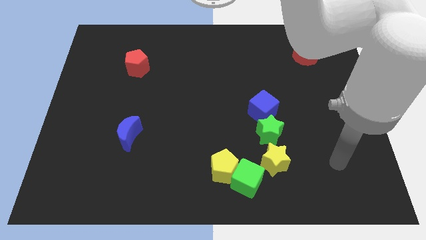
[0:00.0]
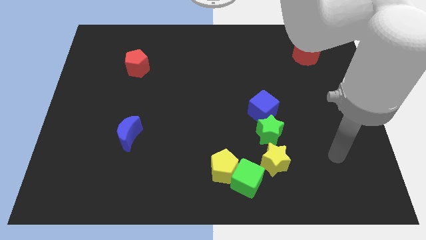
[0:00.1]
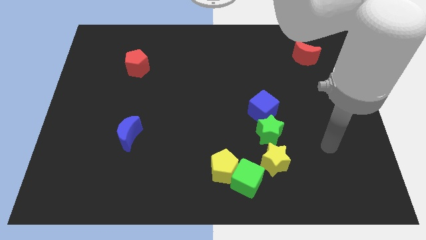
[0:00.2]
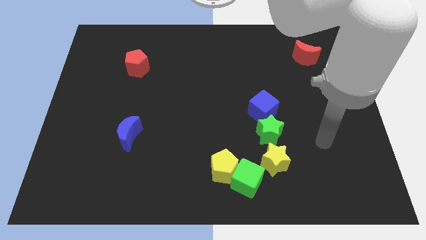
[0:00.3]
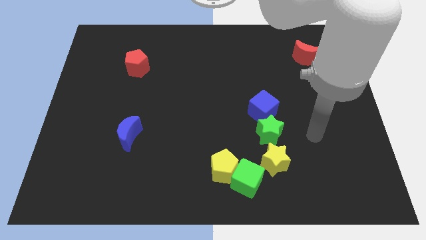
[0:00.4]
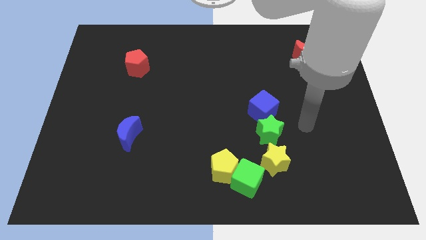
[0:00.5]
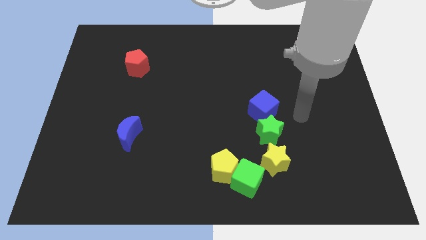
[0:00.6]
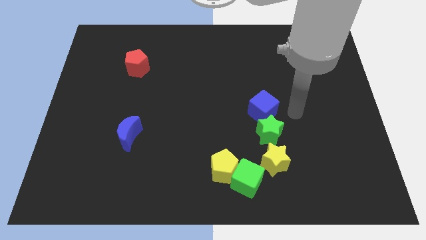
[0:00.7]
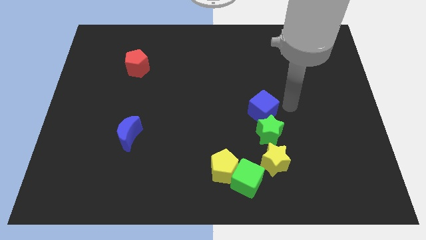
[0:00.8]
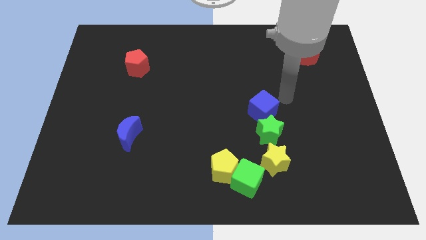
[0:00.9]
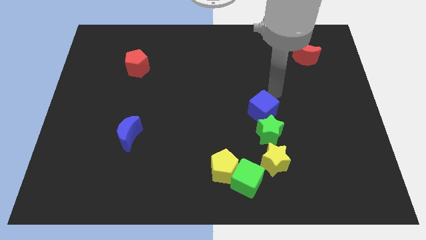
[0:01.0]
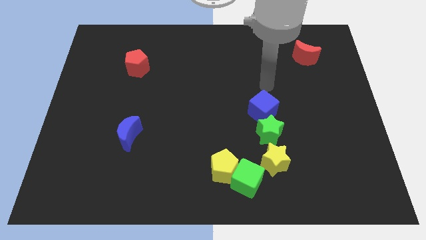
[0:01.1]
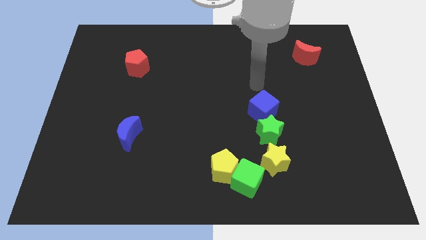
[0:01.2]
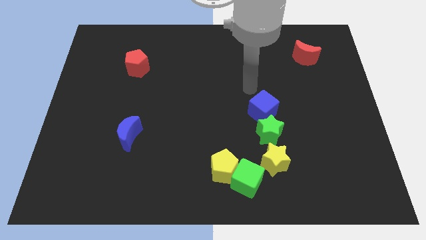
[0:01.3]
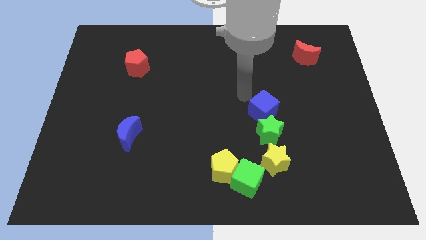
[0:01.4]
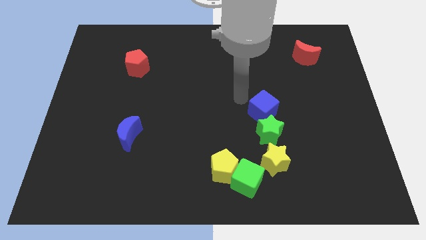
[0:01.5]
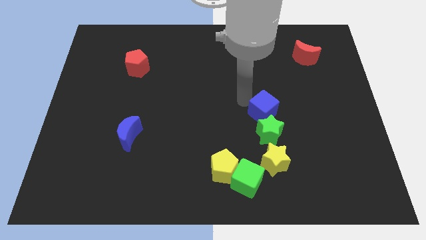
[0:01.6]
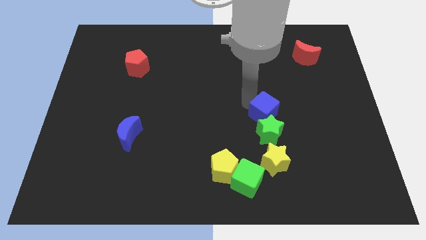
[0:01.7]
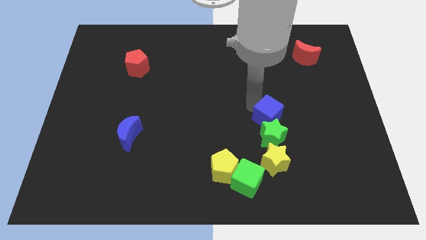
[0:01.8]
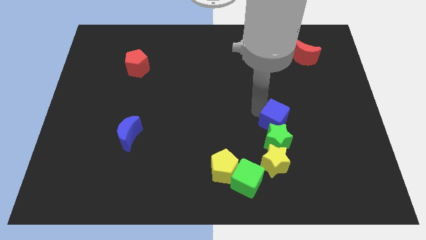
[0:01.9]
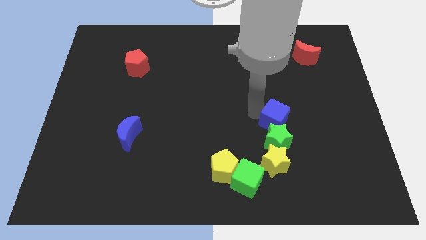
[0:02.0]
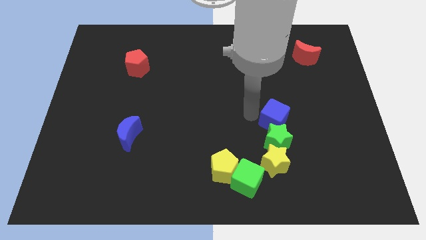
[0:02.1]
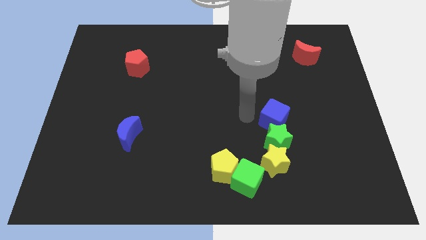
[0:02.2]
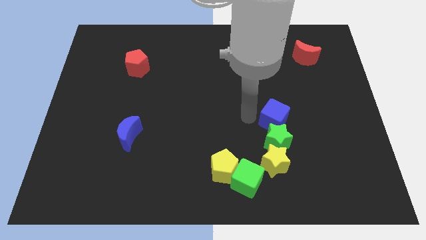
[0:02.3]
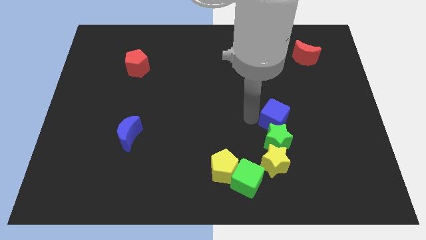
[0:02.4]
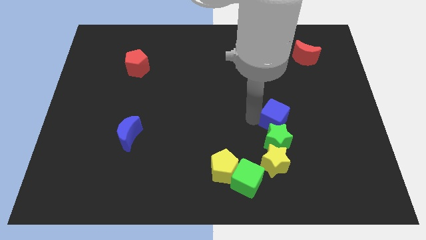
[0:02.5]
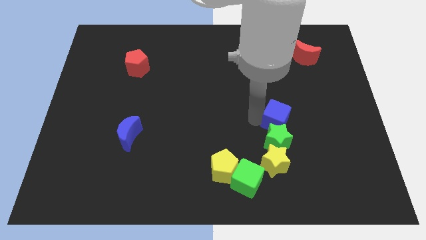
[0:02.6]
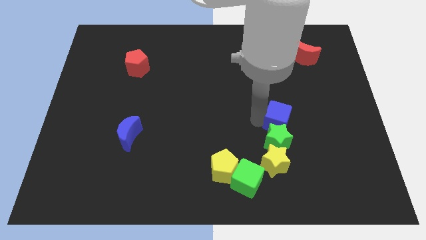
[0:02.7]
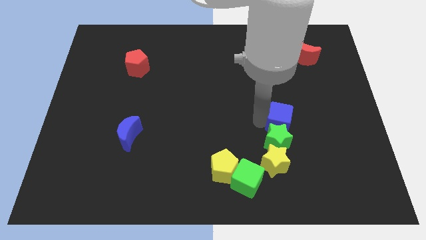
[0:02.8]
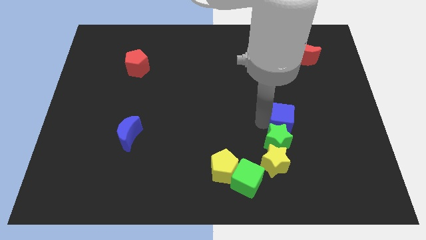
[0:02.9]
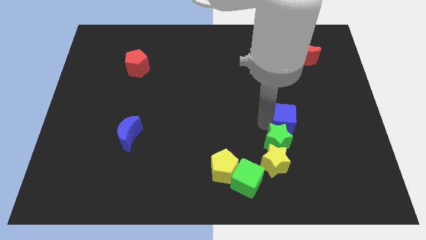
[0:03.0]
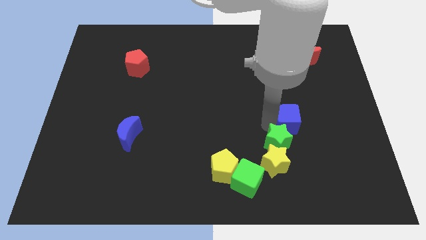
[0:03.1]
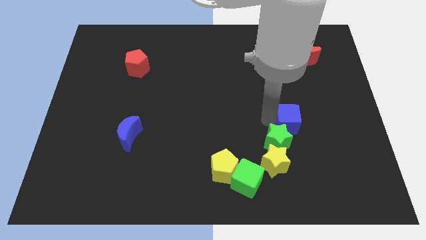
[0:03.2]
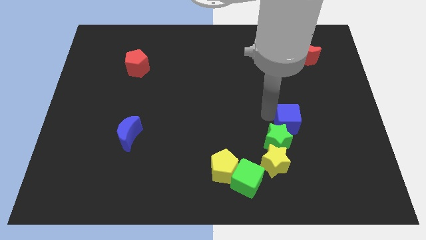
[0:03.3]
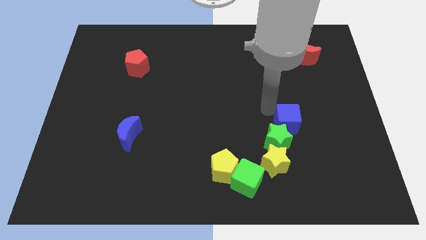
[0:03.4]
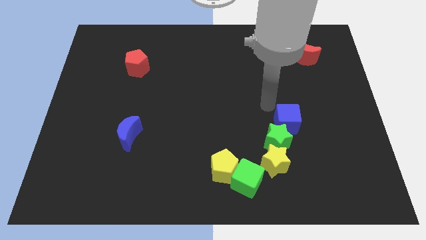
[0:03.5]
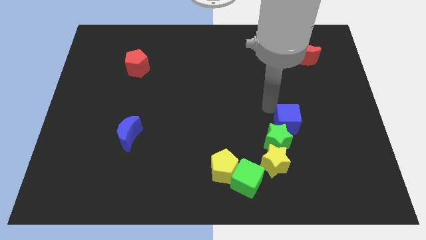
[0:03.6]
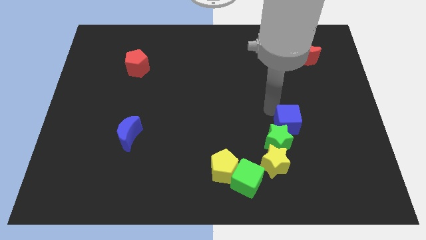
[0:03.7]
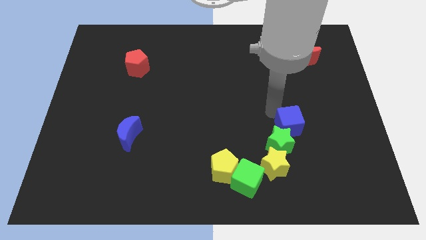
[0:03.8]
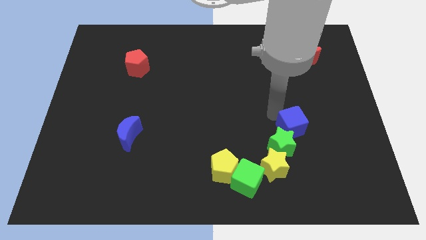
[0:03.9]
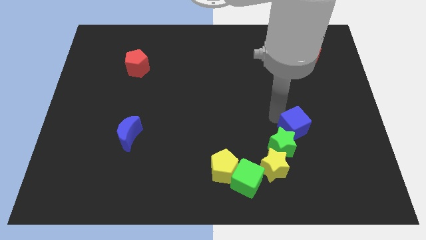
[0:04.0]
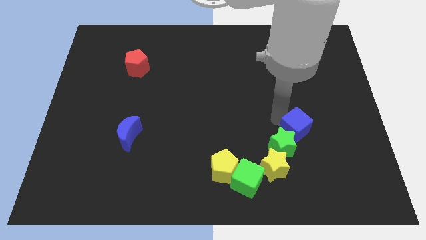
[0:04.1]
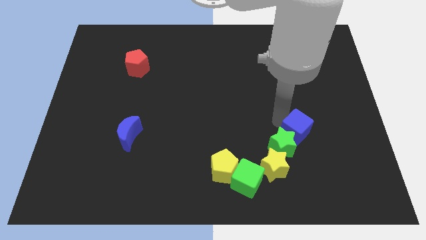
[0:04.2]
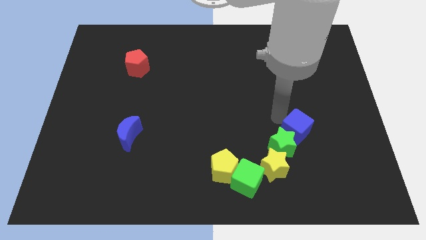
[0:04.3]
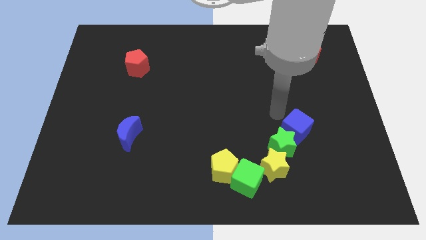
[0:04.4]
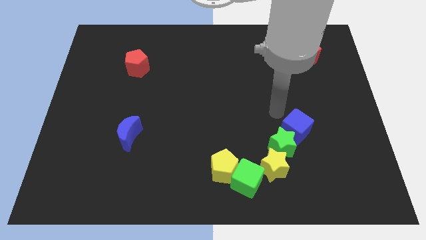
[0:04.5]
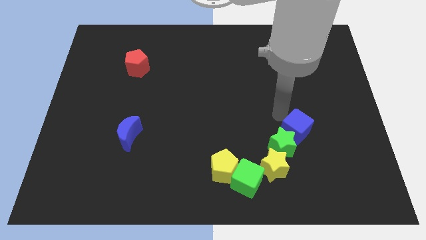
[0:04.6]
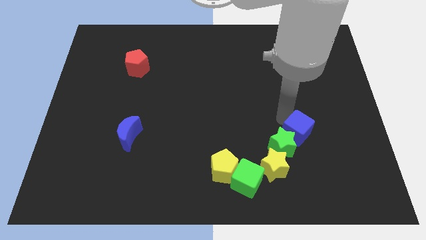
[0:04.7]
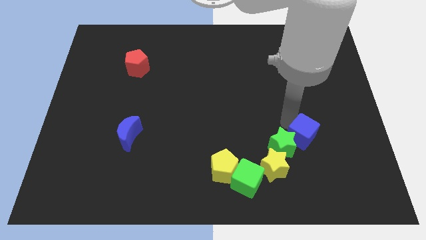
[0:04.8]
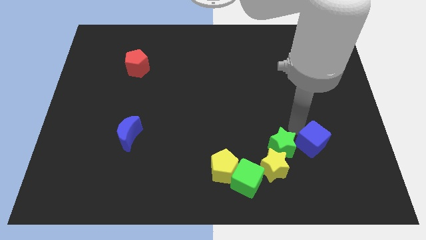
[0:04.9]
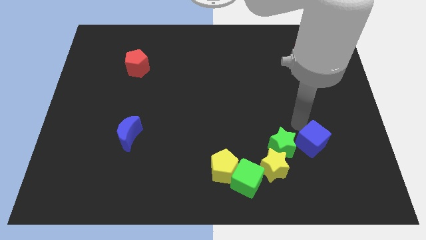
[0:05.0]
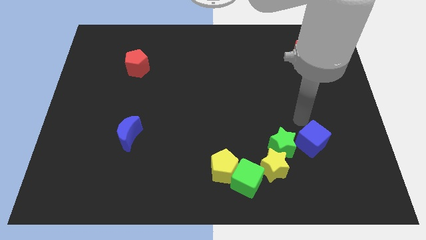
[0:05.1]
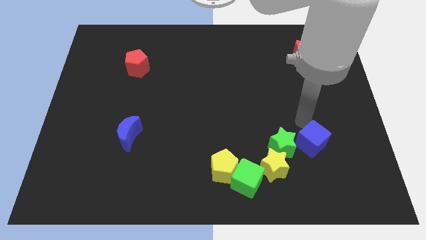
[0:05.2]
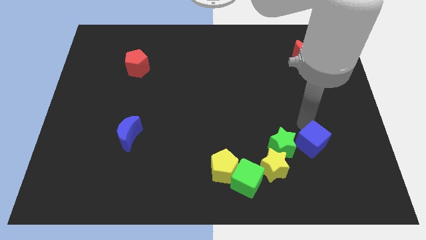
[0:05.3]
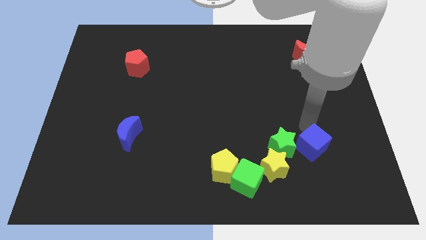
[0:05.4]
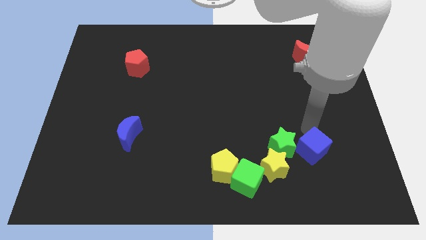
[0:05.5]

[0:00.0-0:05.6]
slide the blue cube right of the yellow star

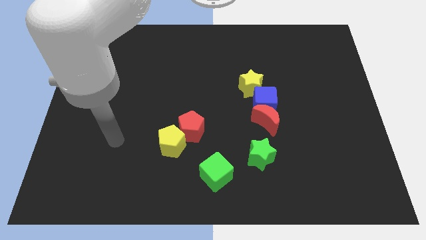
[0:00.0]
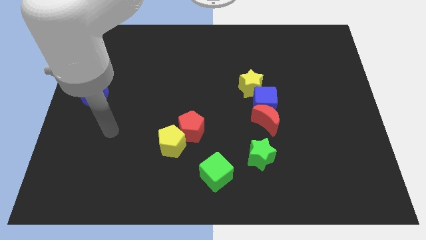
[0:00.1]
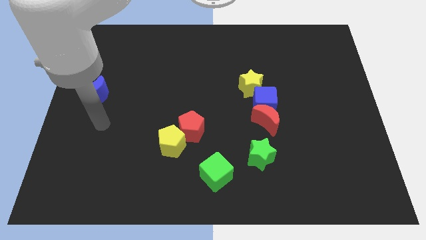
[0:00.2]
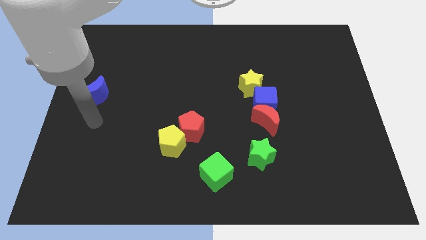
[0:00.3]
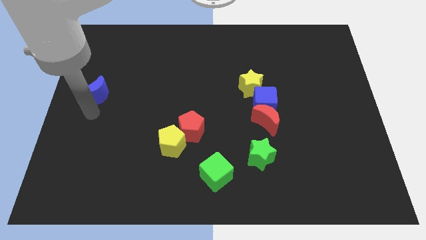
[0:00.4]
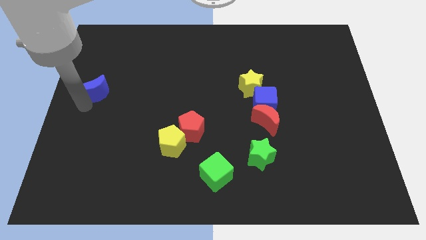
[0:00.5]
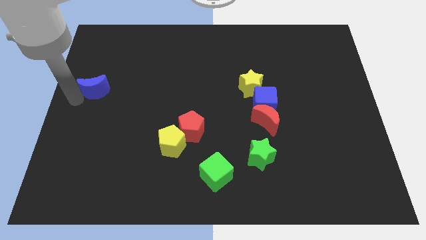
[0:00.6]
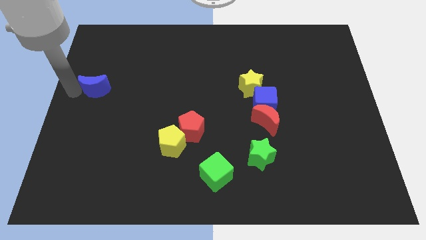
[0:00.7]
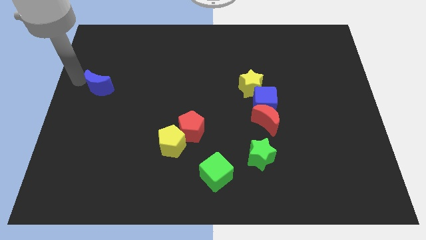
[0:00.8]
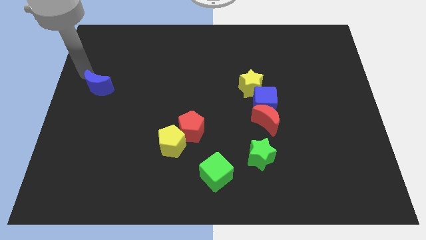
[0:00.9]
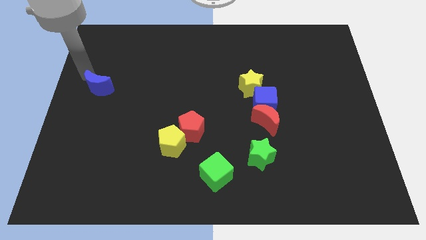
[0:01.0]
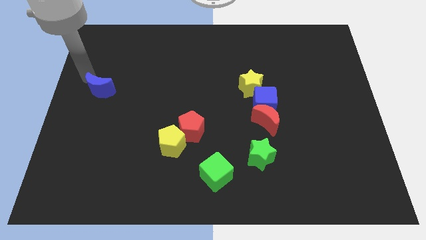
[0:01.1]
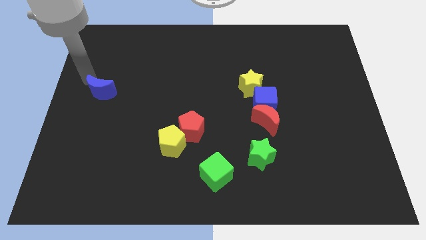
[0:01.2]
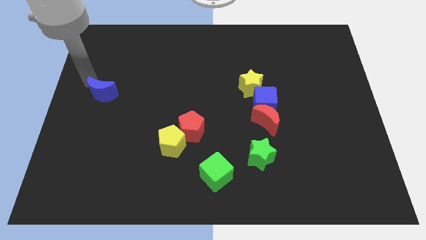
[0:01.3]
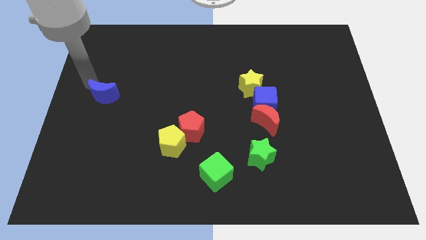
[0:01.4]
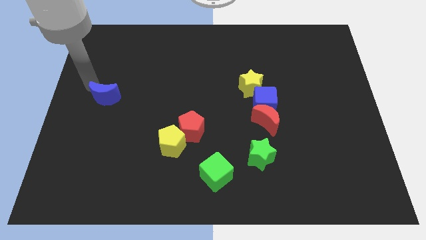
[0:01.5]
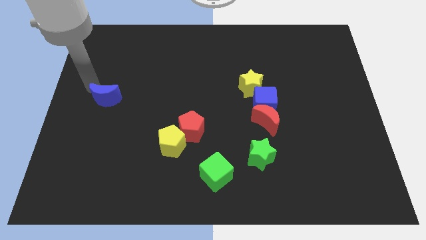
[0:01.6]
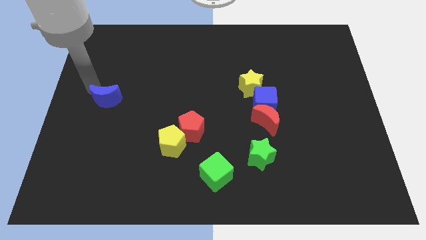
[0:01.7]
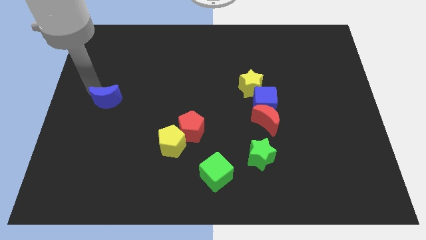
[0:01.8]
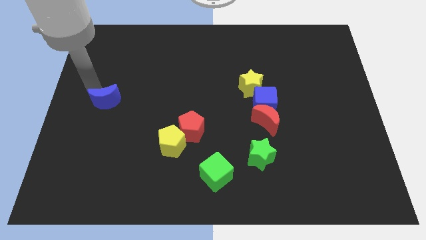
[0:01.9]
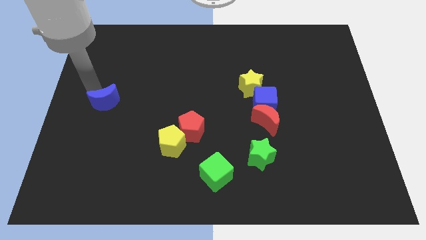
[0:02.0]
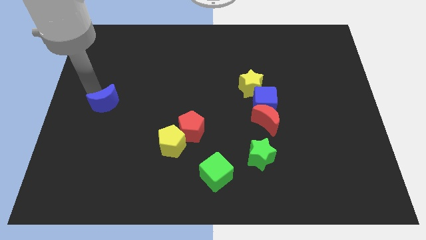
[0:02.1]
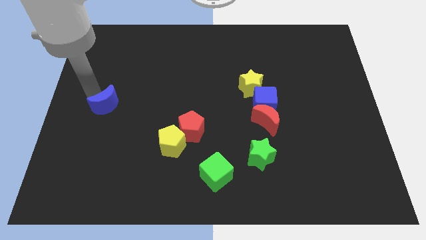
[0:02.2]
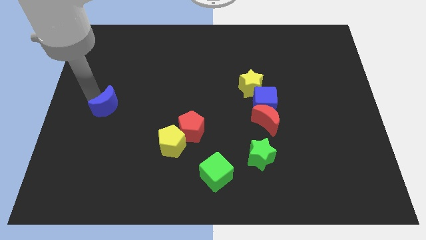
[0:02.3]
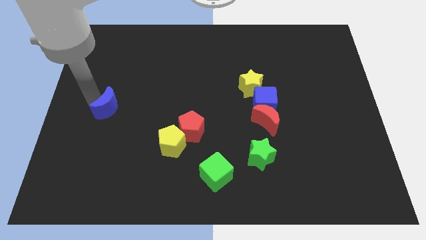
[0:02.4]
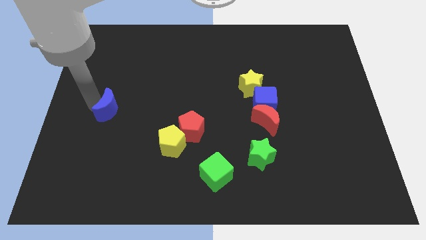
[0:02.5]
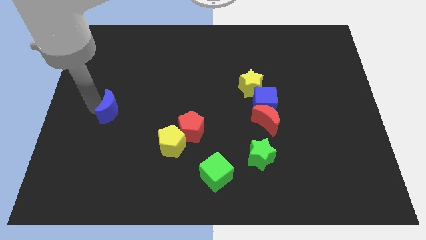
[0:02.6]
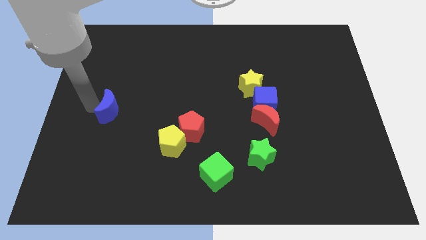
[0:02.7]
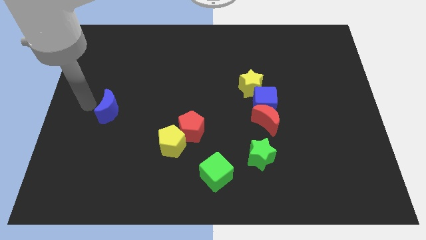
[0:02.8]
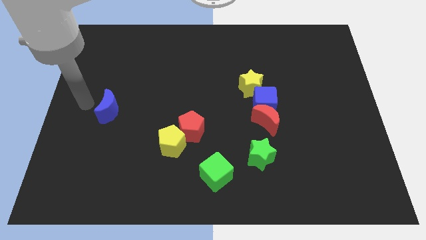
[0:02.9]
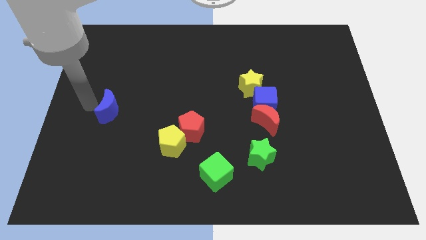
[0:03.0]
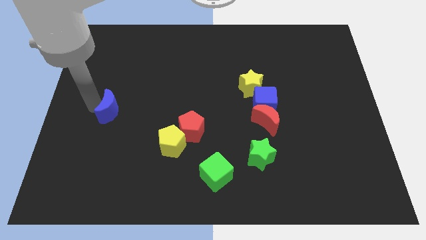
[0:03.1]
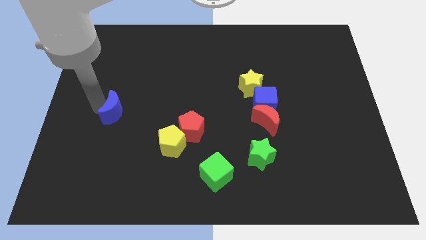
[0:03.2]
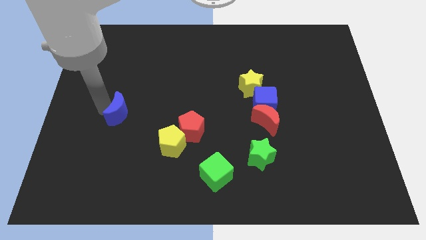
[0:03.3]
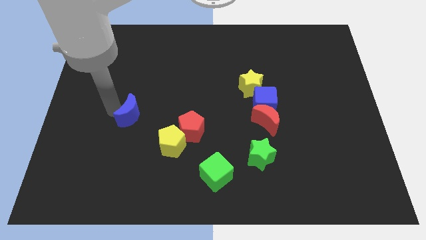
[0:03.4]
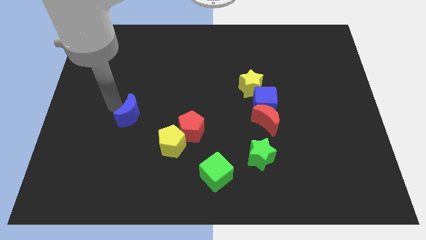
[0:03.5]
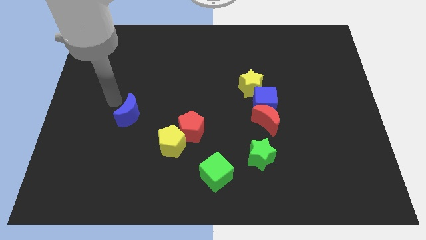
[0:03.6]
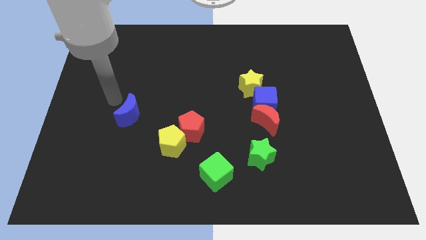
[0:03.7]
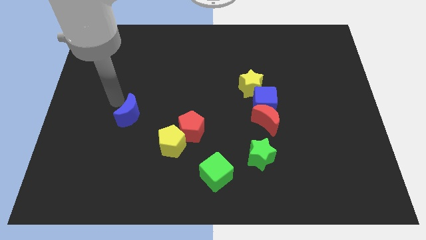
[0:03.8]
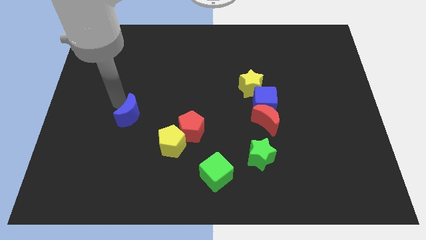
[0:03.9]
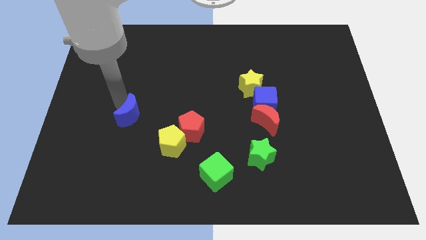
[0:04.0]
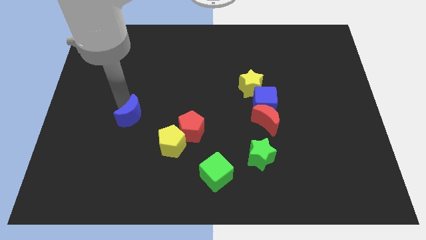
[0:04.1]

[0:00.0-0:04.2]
move the blue moon left of the red pentagon
